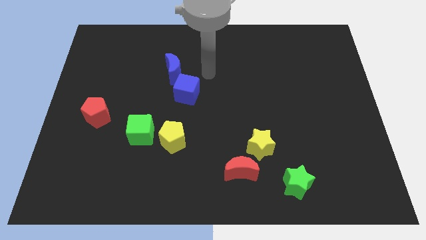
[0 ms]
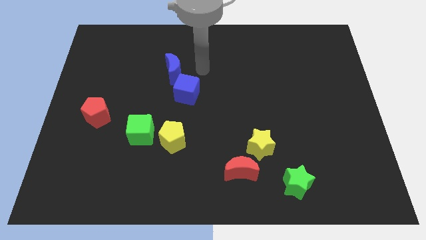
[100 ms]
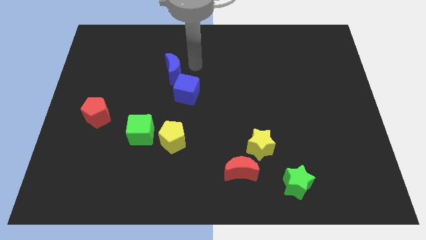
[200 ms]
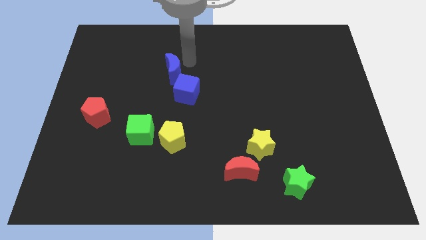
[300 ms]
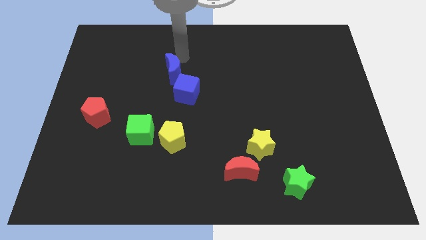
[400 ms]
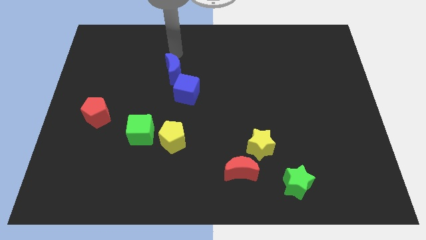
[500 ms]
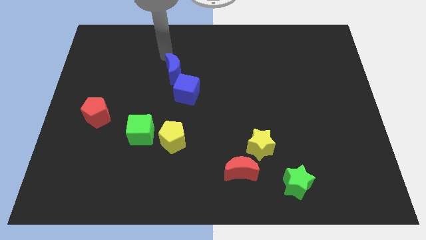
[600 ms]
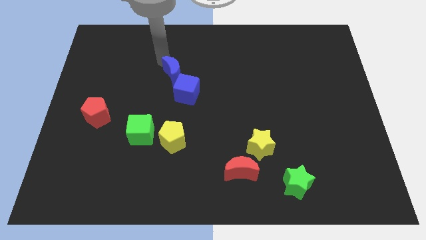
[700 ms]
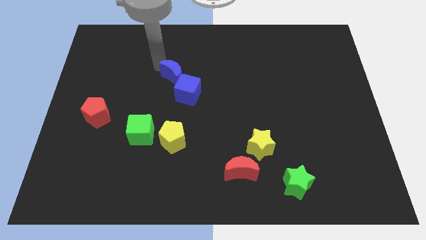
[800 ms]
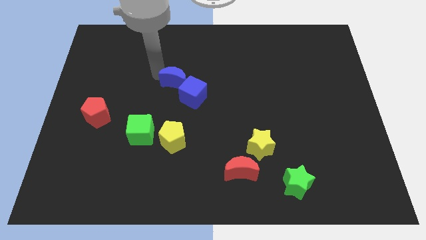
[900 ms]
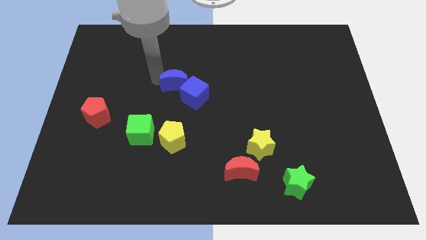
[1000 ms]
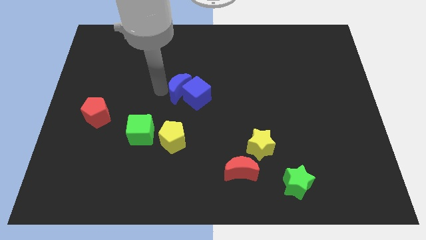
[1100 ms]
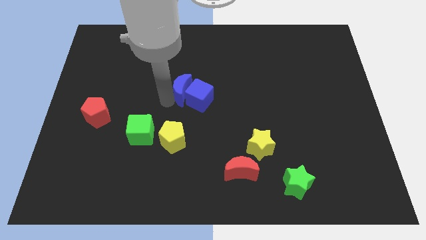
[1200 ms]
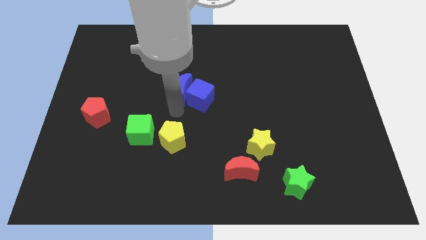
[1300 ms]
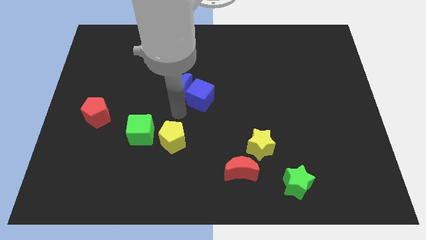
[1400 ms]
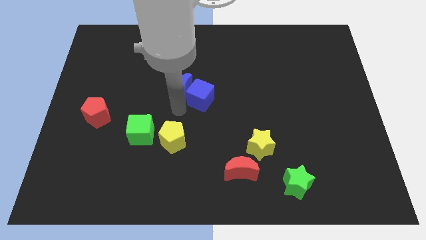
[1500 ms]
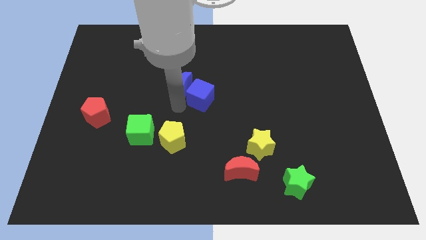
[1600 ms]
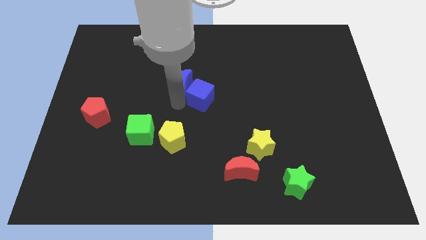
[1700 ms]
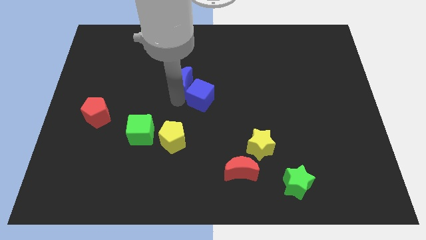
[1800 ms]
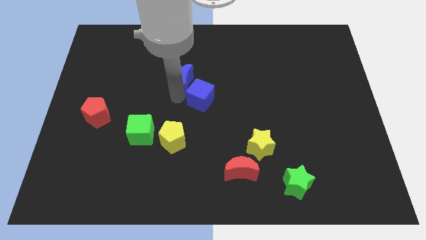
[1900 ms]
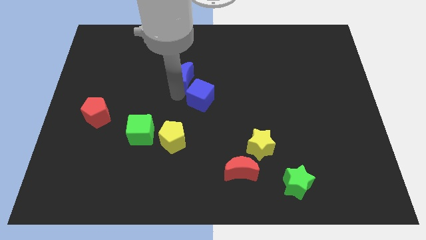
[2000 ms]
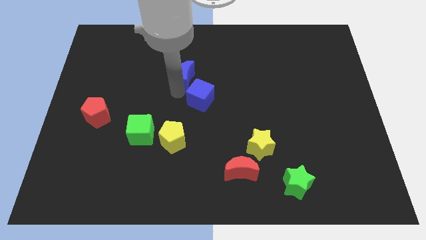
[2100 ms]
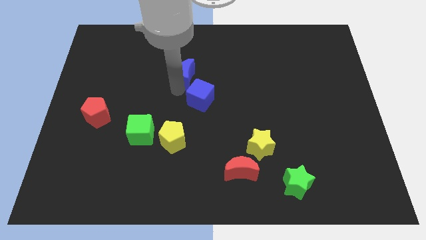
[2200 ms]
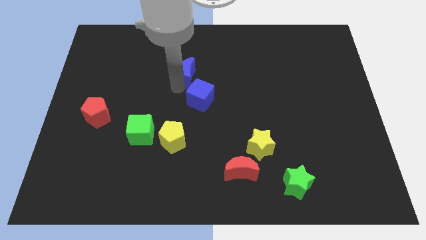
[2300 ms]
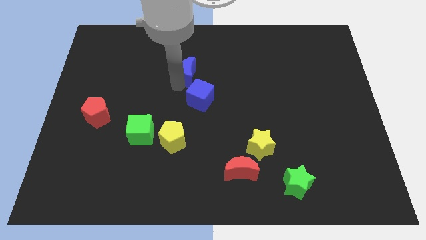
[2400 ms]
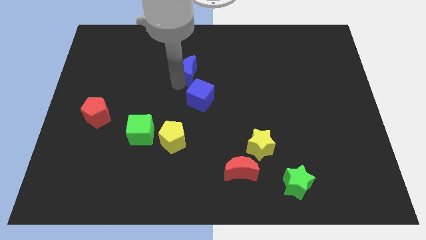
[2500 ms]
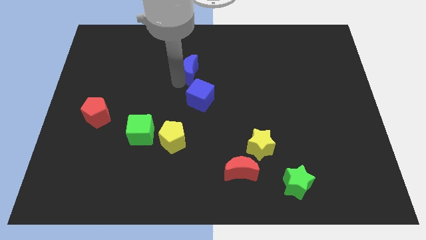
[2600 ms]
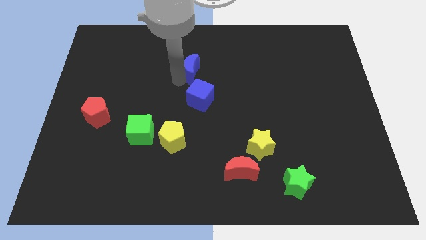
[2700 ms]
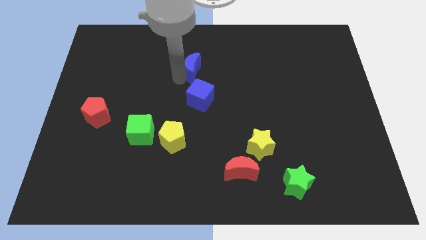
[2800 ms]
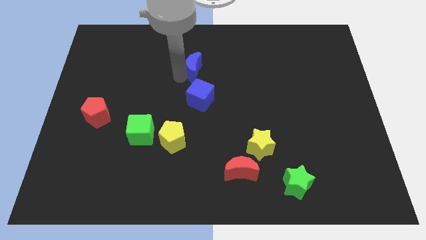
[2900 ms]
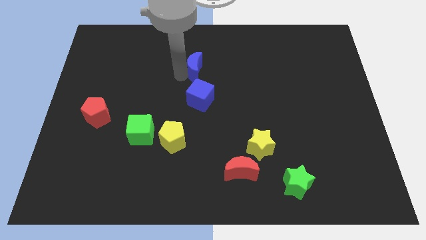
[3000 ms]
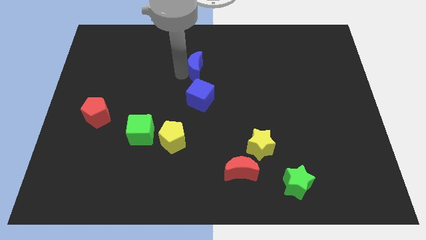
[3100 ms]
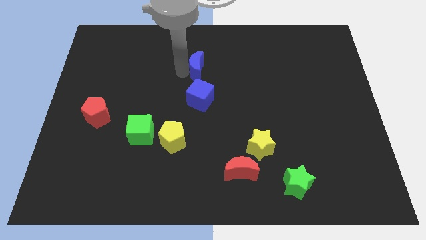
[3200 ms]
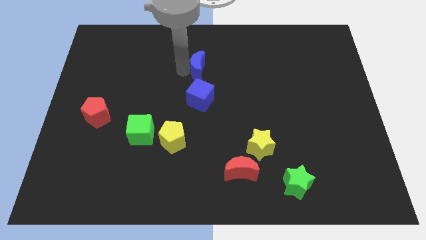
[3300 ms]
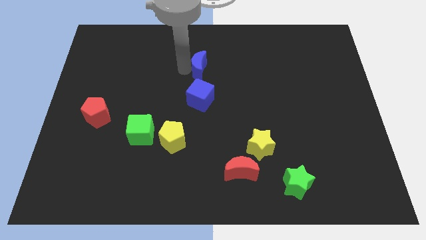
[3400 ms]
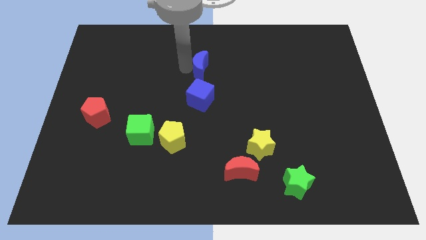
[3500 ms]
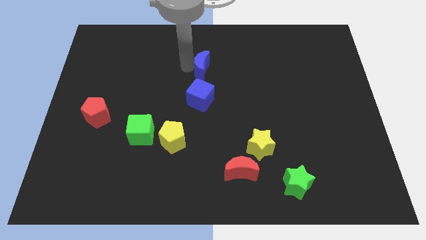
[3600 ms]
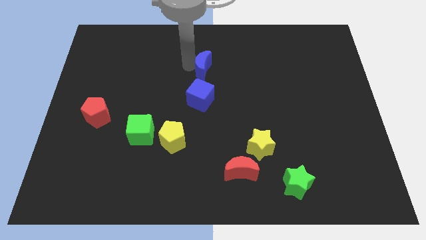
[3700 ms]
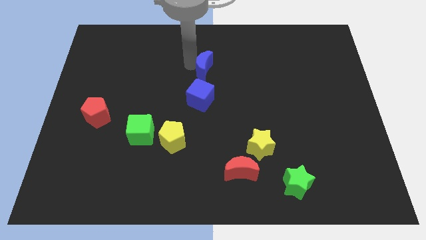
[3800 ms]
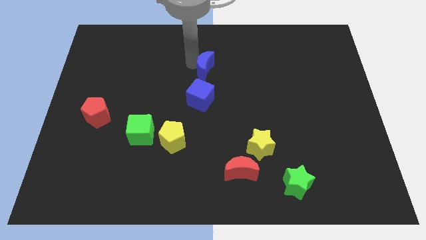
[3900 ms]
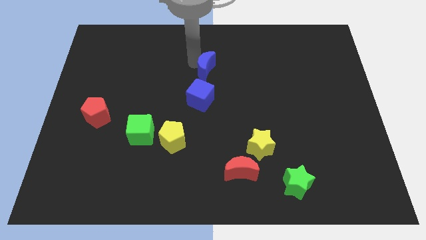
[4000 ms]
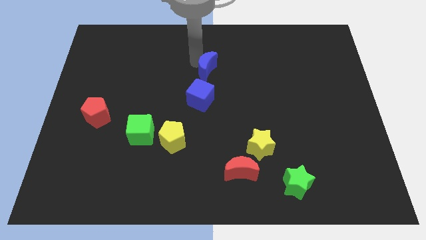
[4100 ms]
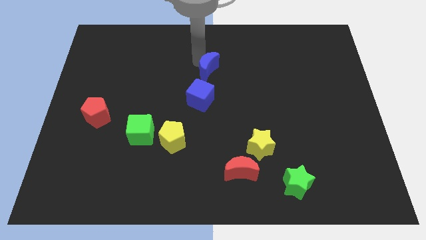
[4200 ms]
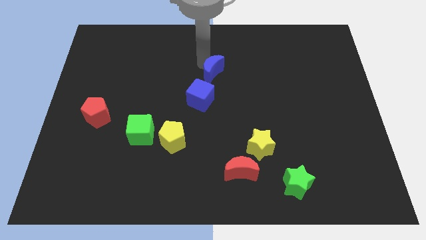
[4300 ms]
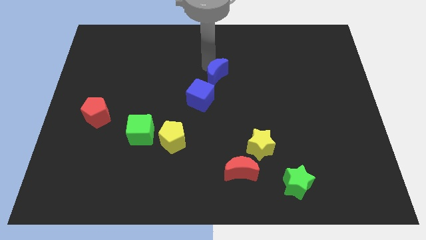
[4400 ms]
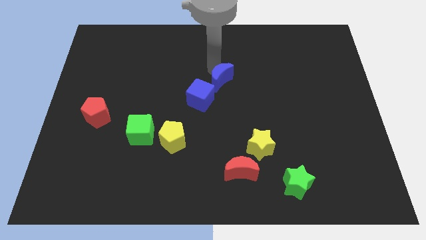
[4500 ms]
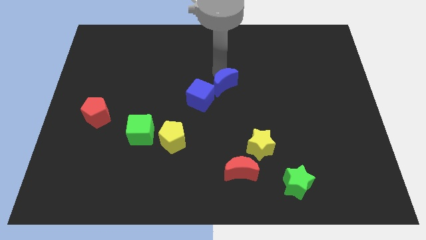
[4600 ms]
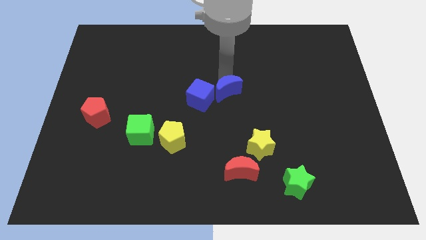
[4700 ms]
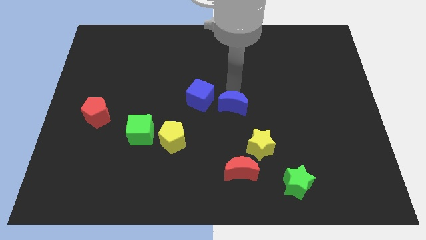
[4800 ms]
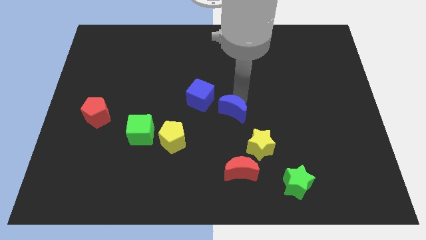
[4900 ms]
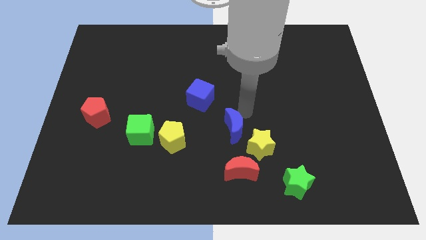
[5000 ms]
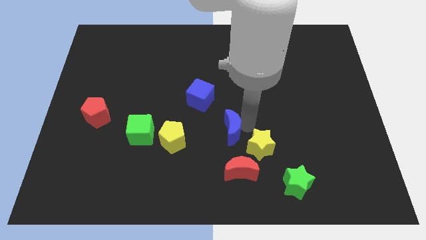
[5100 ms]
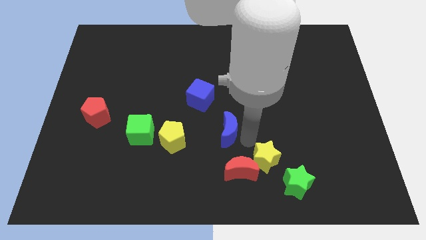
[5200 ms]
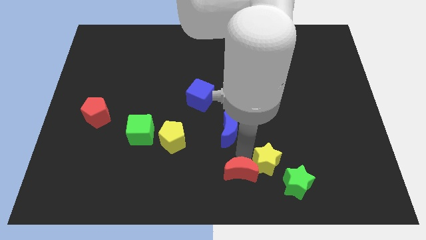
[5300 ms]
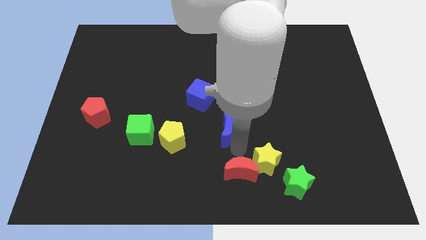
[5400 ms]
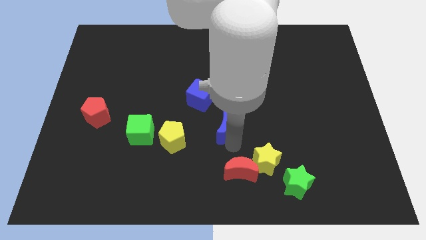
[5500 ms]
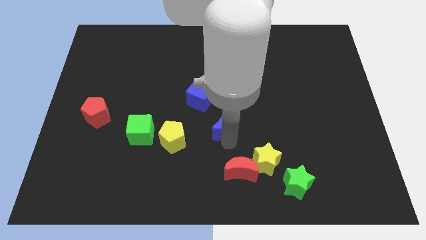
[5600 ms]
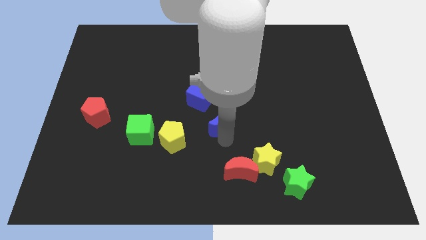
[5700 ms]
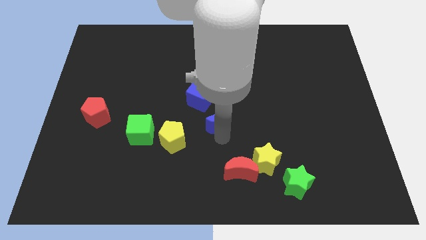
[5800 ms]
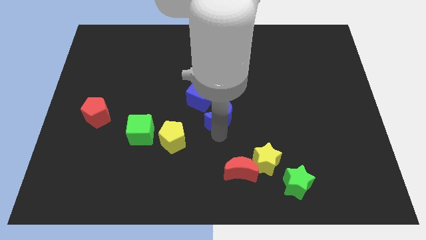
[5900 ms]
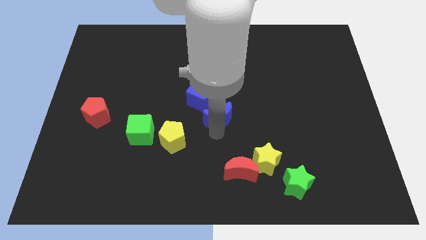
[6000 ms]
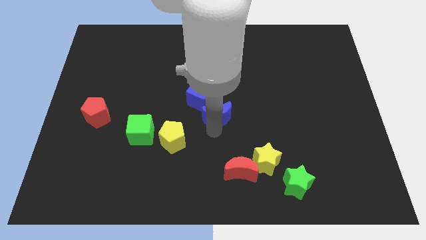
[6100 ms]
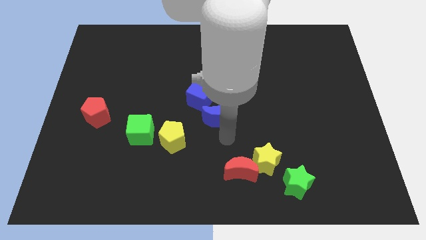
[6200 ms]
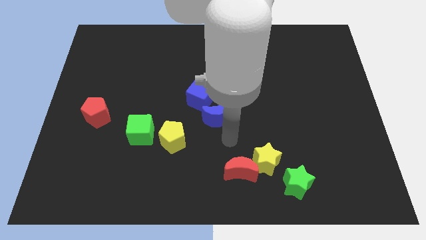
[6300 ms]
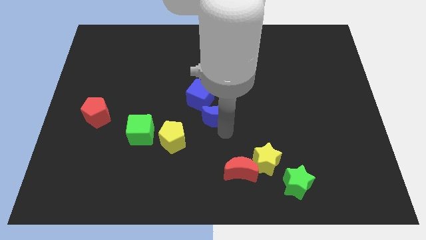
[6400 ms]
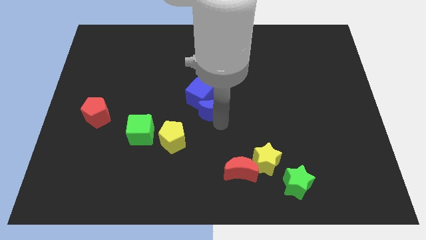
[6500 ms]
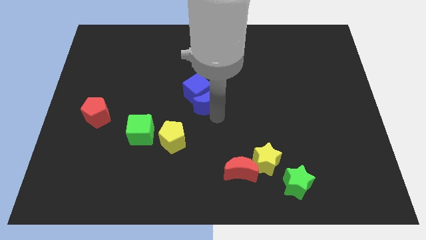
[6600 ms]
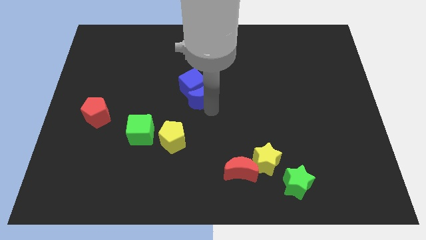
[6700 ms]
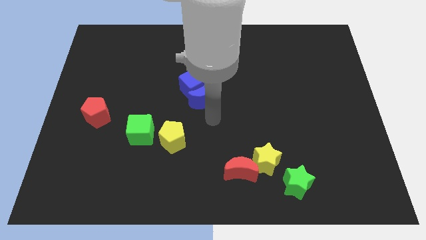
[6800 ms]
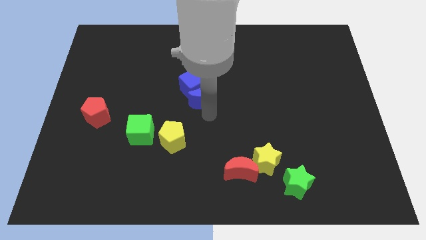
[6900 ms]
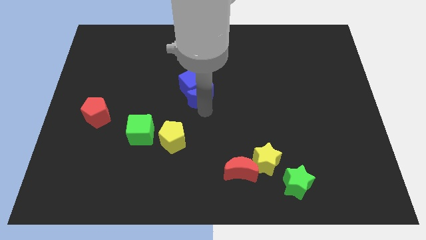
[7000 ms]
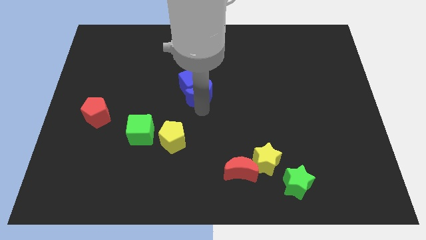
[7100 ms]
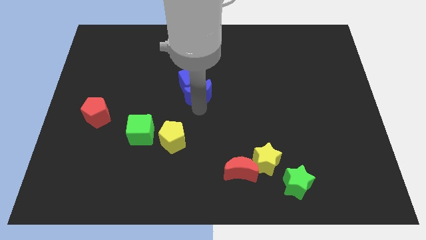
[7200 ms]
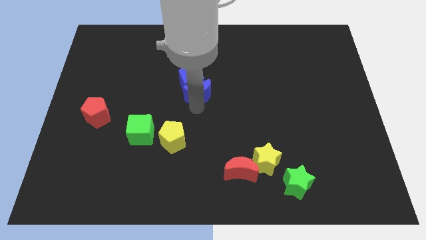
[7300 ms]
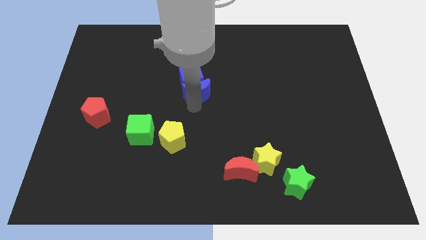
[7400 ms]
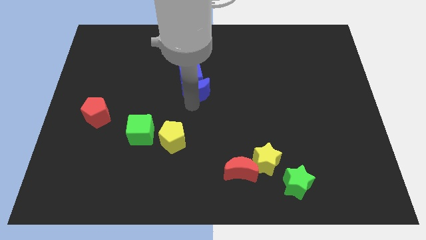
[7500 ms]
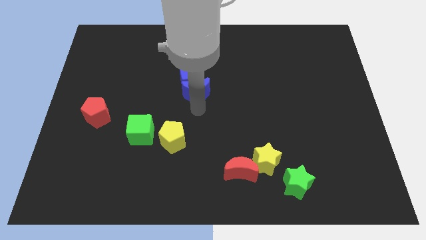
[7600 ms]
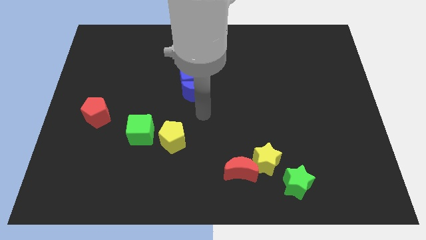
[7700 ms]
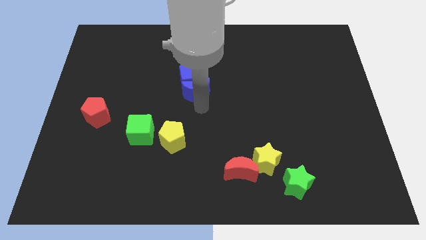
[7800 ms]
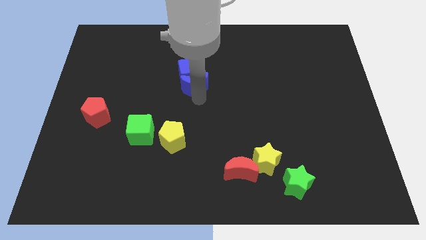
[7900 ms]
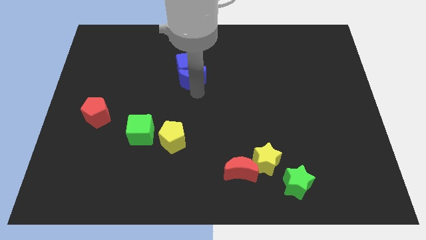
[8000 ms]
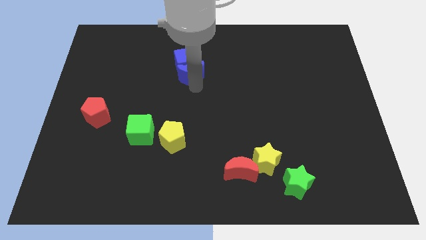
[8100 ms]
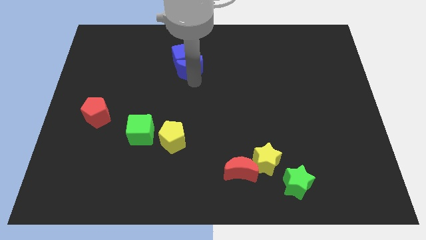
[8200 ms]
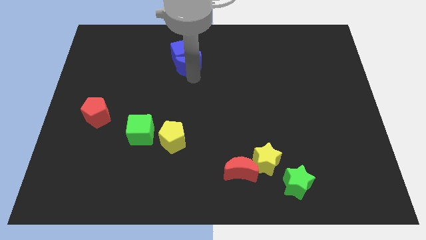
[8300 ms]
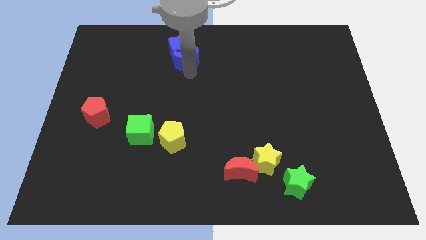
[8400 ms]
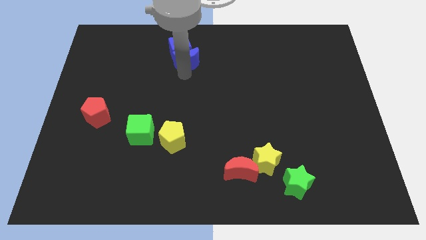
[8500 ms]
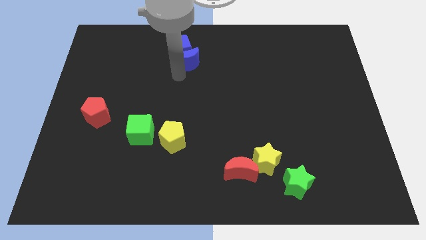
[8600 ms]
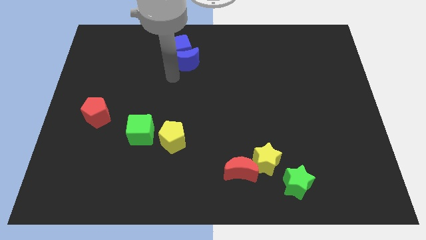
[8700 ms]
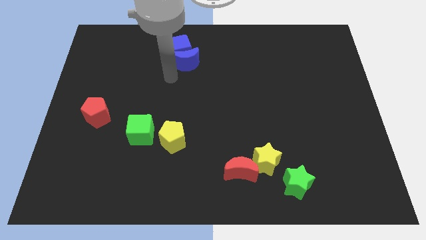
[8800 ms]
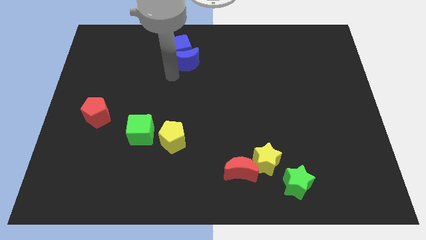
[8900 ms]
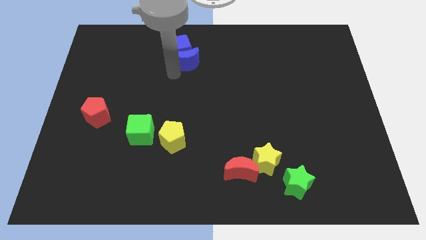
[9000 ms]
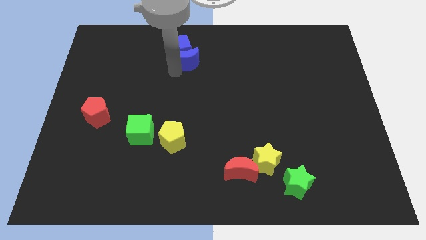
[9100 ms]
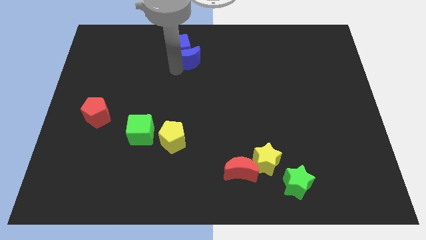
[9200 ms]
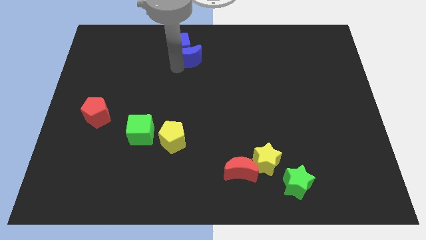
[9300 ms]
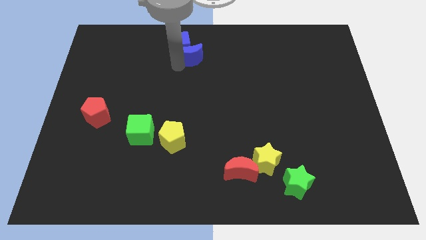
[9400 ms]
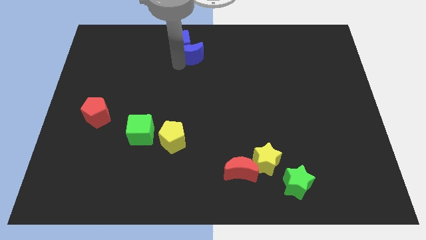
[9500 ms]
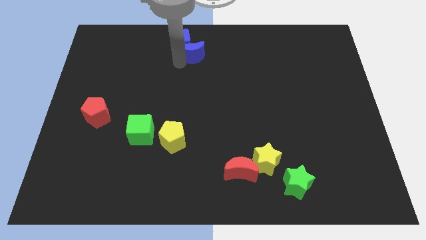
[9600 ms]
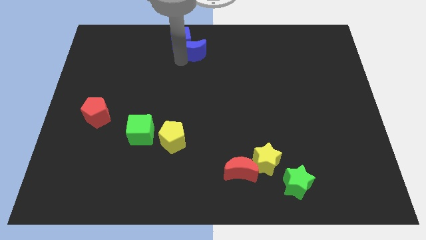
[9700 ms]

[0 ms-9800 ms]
move the blue moon to the top
